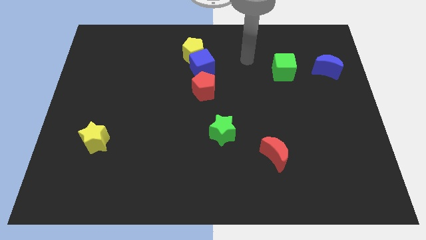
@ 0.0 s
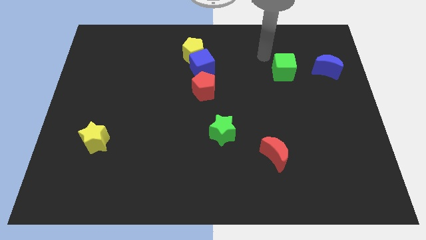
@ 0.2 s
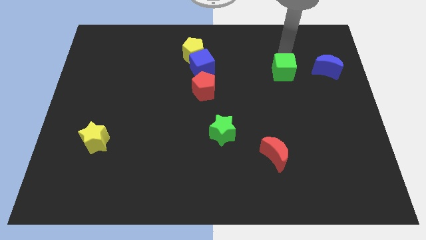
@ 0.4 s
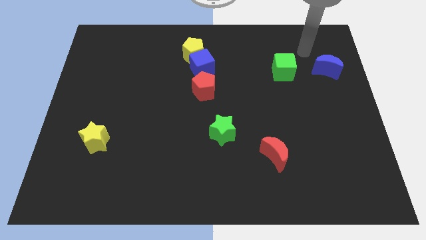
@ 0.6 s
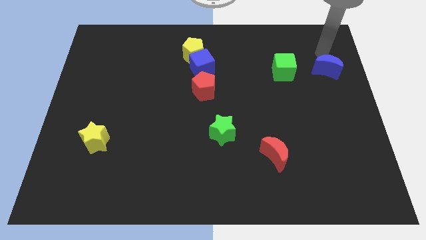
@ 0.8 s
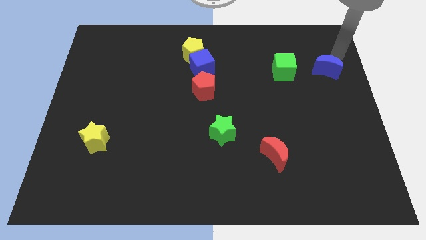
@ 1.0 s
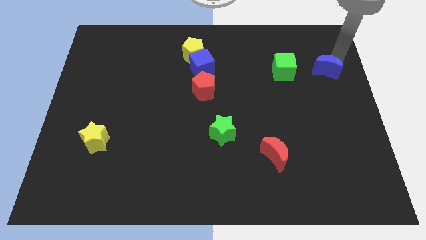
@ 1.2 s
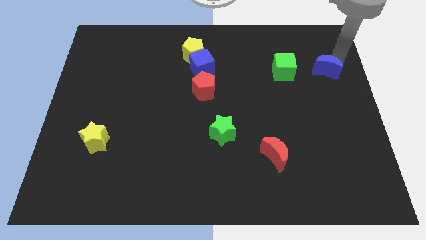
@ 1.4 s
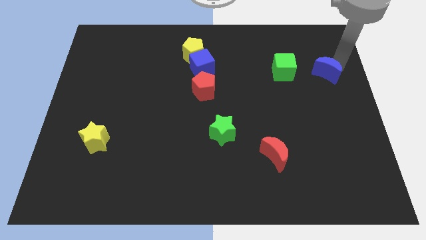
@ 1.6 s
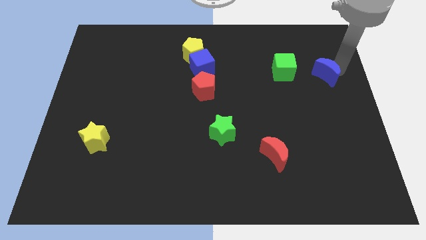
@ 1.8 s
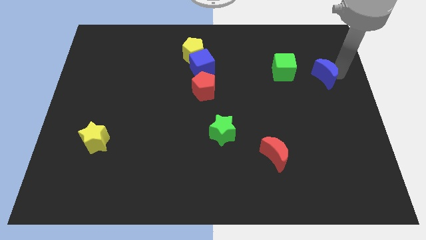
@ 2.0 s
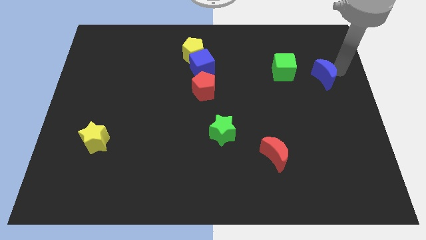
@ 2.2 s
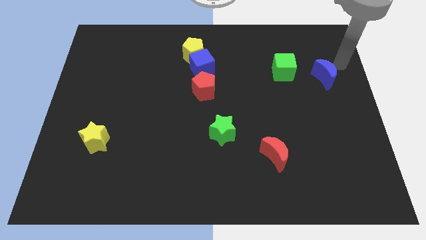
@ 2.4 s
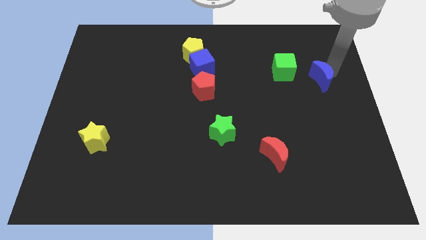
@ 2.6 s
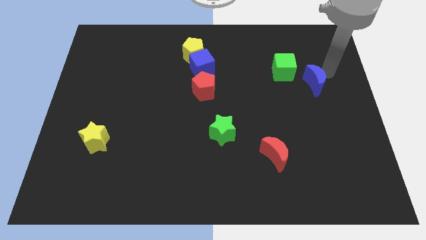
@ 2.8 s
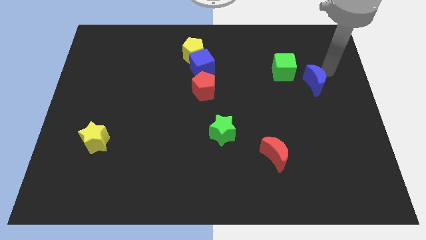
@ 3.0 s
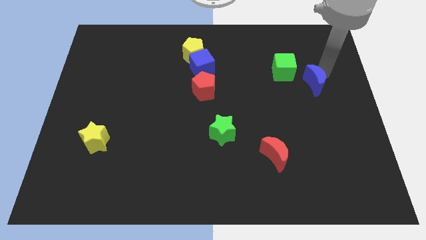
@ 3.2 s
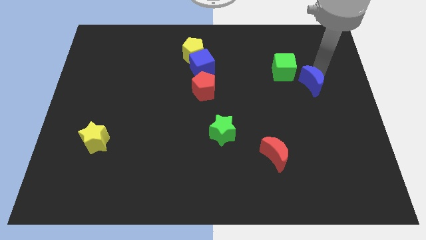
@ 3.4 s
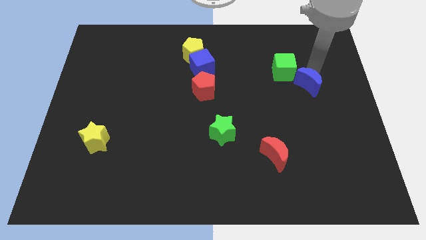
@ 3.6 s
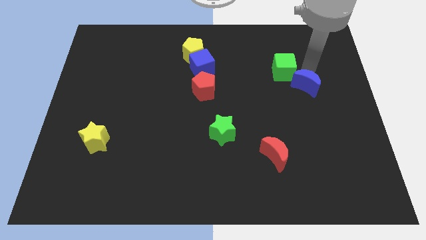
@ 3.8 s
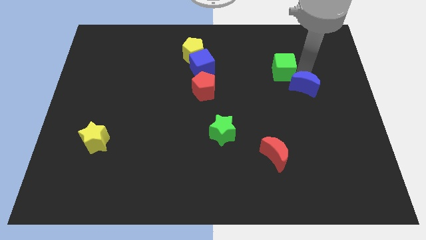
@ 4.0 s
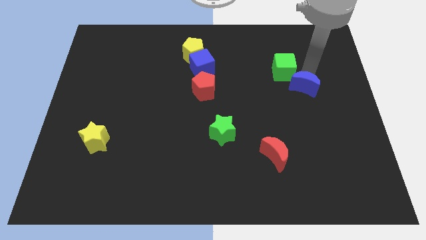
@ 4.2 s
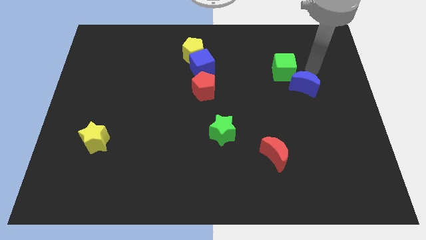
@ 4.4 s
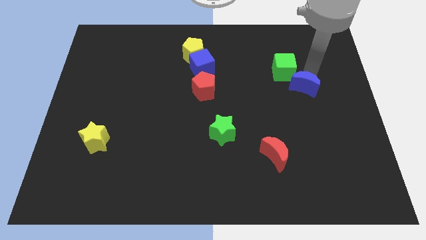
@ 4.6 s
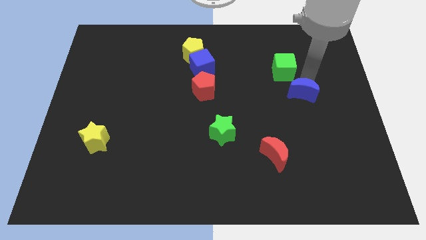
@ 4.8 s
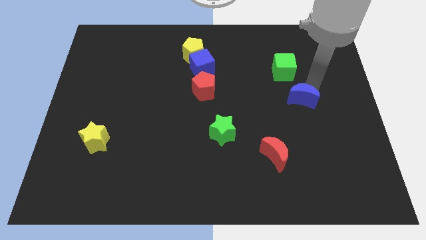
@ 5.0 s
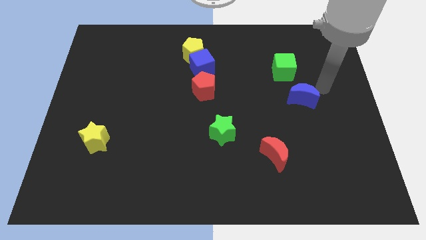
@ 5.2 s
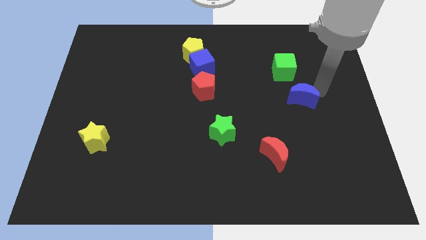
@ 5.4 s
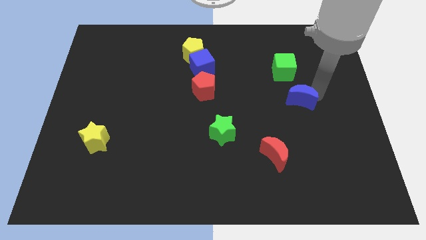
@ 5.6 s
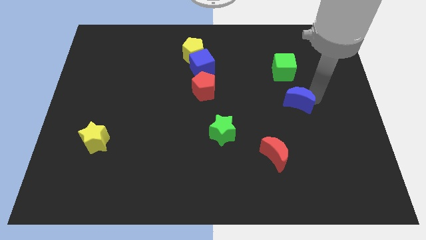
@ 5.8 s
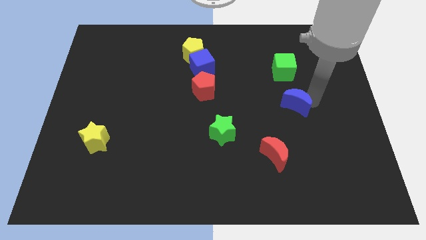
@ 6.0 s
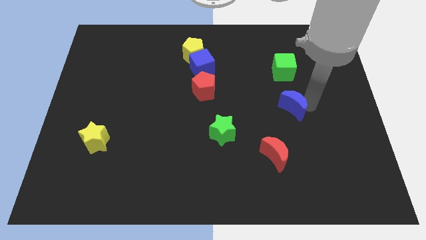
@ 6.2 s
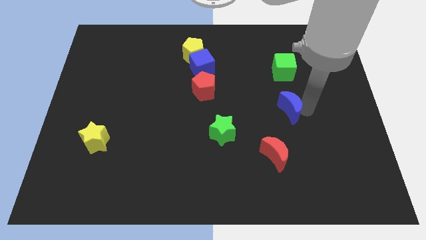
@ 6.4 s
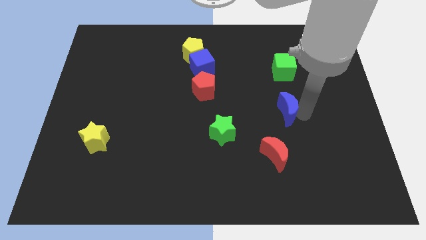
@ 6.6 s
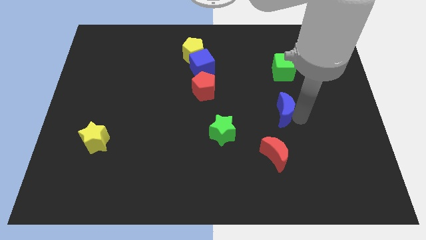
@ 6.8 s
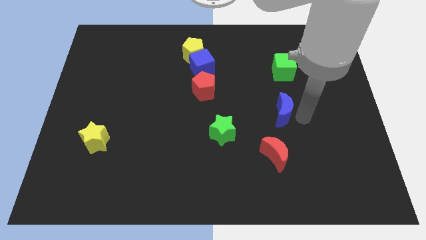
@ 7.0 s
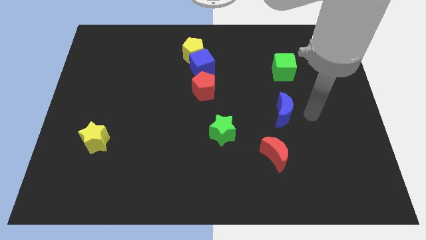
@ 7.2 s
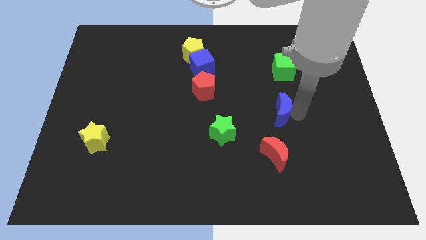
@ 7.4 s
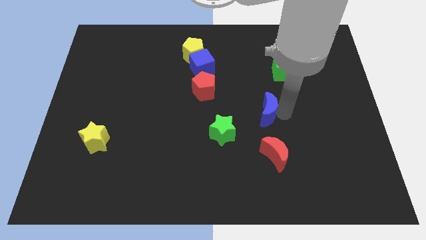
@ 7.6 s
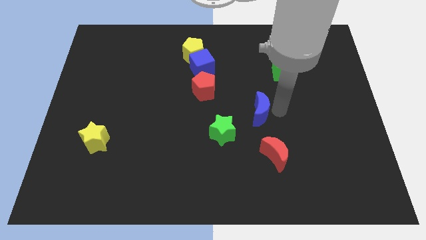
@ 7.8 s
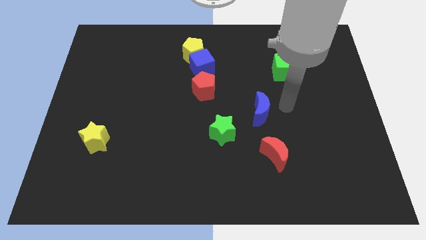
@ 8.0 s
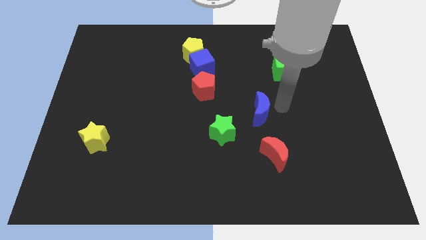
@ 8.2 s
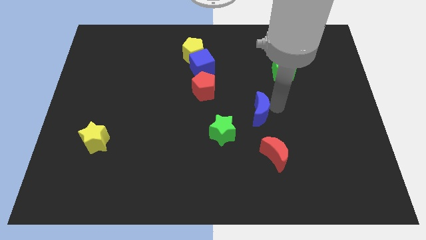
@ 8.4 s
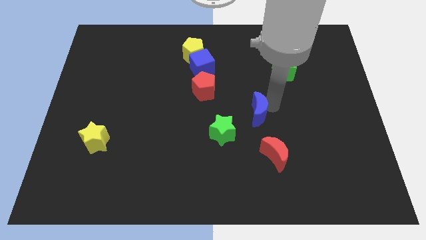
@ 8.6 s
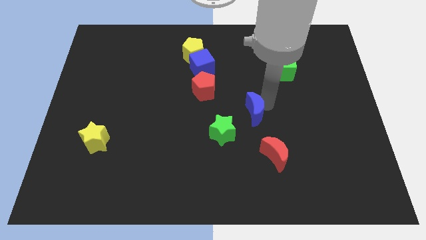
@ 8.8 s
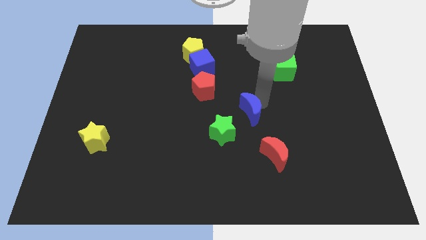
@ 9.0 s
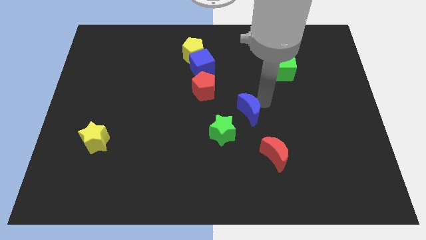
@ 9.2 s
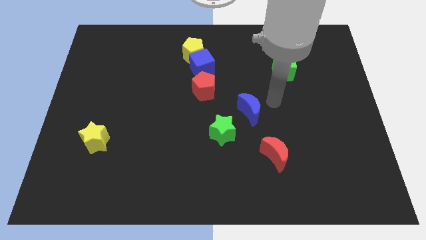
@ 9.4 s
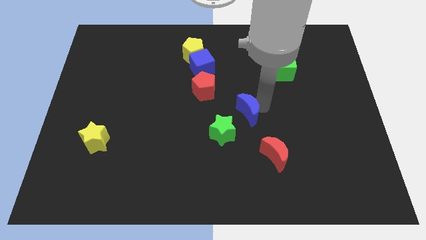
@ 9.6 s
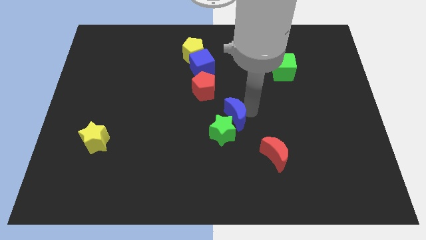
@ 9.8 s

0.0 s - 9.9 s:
put the blue moon next to the green star

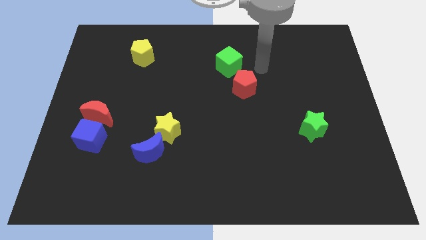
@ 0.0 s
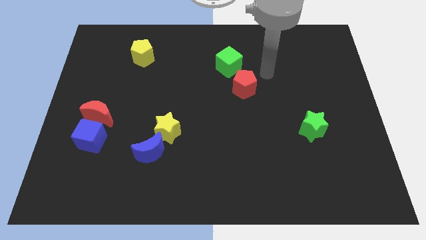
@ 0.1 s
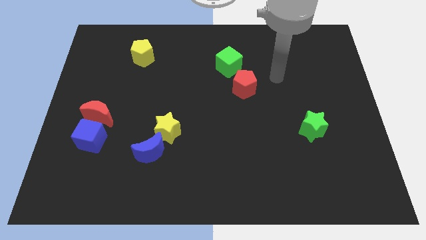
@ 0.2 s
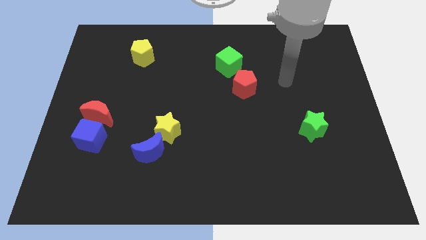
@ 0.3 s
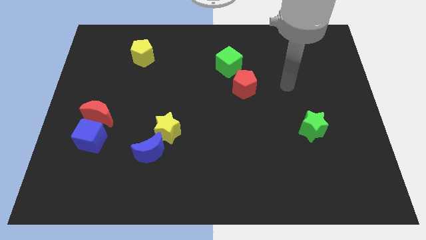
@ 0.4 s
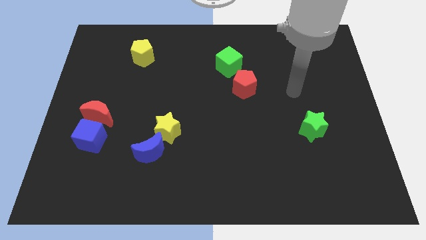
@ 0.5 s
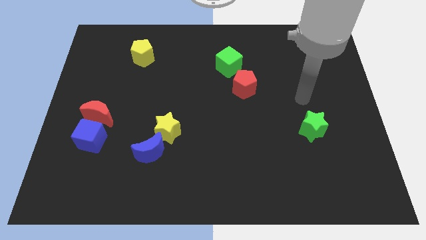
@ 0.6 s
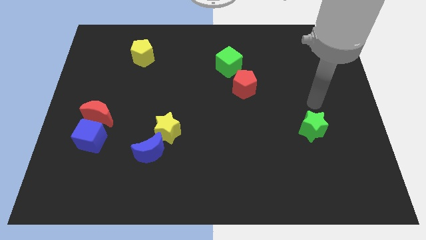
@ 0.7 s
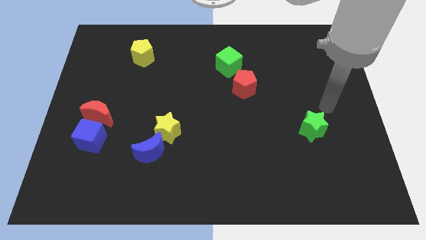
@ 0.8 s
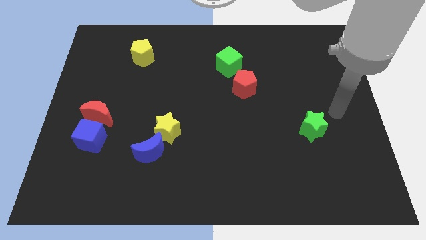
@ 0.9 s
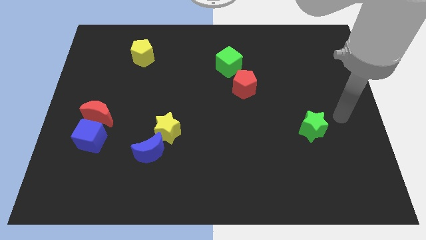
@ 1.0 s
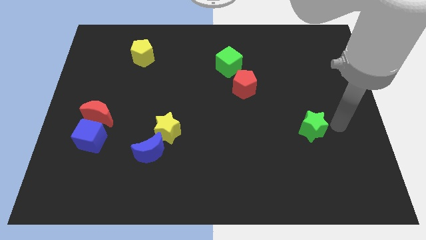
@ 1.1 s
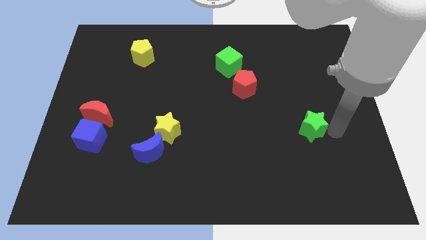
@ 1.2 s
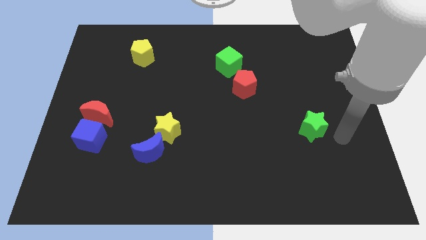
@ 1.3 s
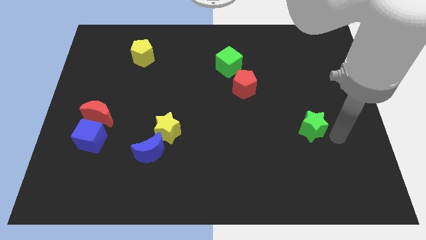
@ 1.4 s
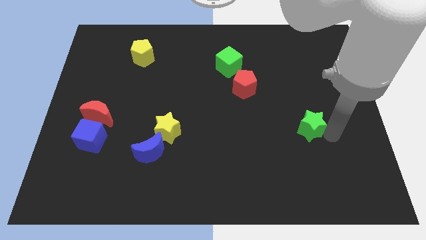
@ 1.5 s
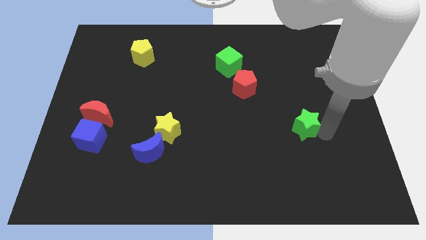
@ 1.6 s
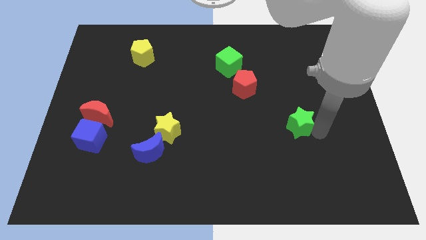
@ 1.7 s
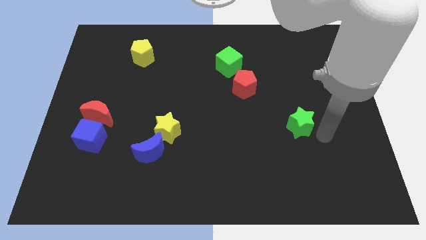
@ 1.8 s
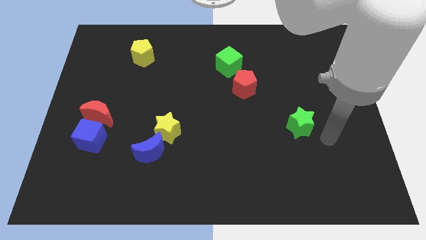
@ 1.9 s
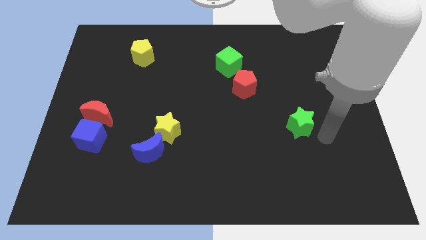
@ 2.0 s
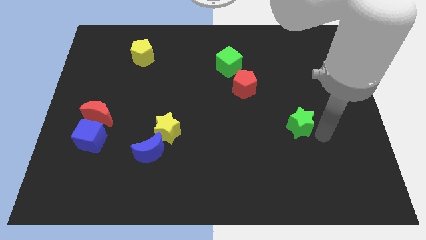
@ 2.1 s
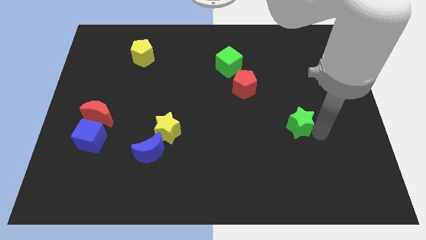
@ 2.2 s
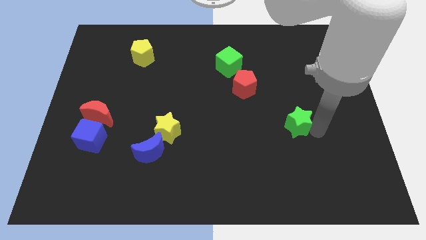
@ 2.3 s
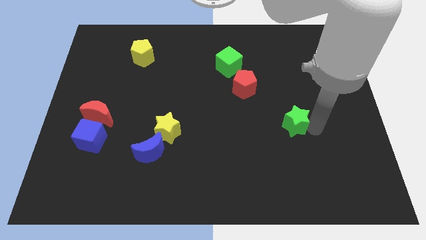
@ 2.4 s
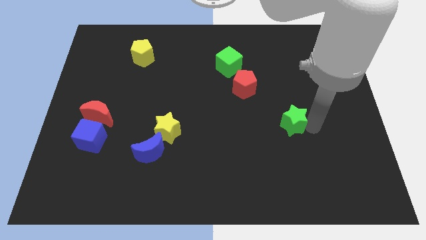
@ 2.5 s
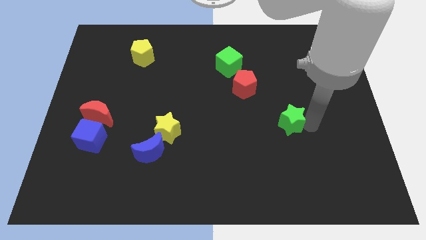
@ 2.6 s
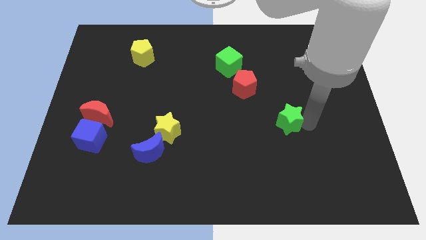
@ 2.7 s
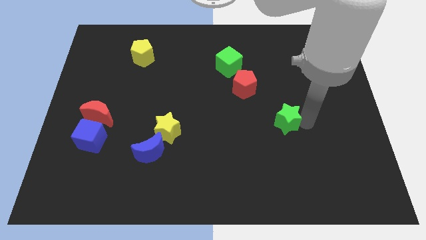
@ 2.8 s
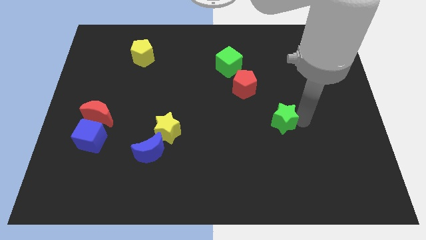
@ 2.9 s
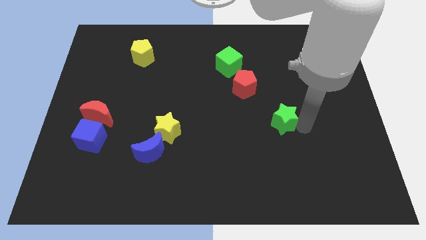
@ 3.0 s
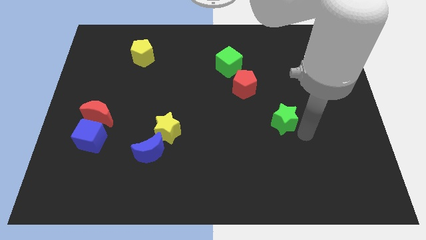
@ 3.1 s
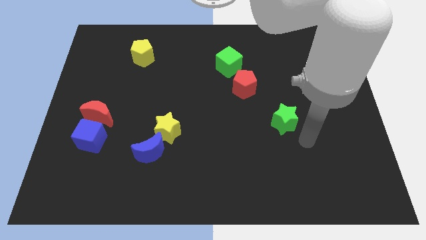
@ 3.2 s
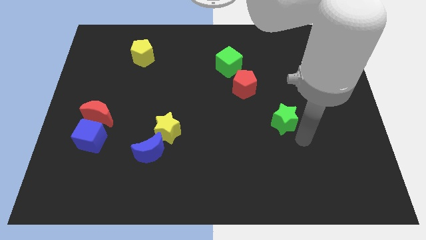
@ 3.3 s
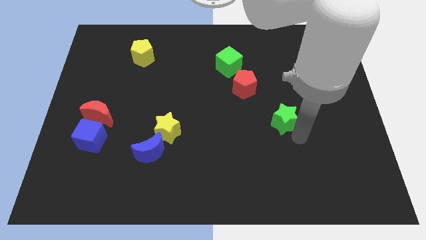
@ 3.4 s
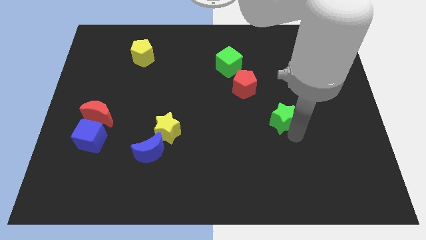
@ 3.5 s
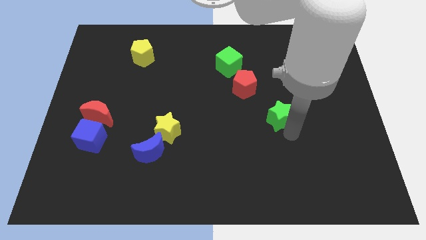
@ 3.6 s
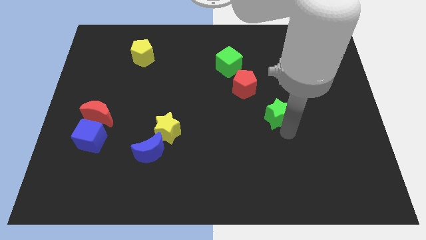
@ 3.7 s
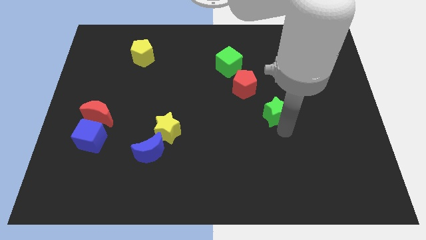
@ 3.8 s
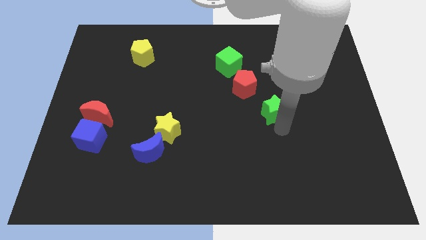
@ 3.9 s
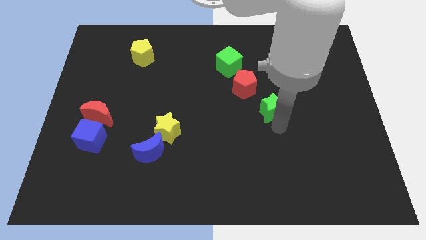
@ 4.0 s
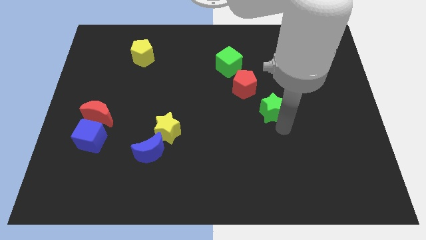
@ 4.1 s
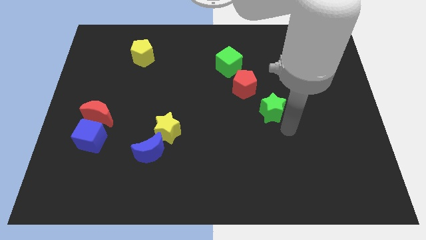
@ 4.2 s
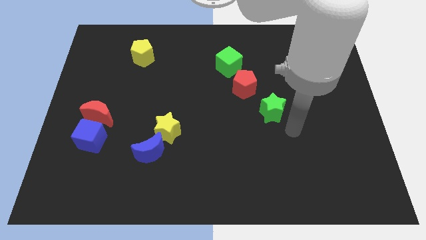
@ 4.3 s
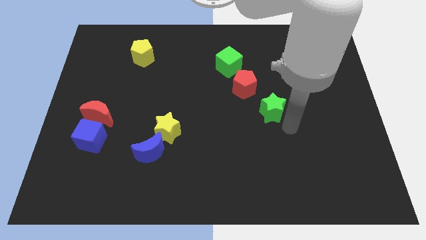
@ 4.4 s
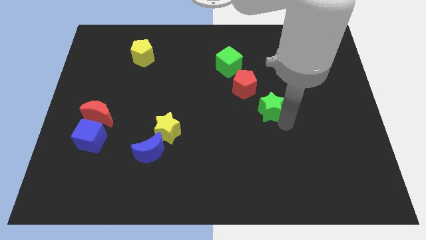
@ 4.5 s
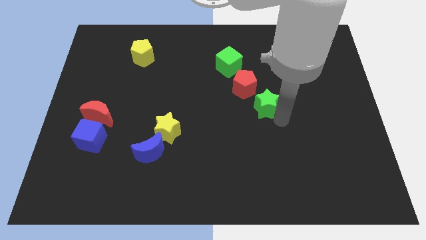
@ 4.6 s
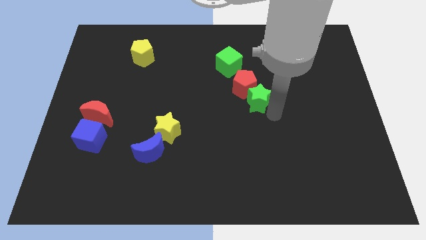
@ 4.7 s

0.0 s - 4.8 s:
push the green star next to the red pentagon
